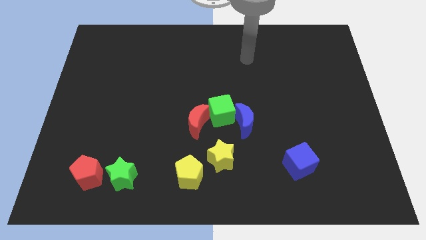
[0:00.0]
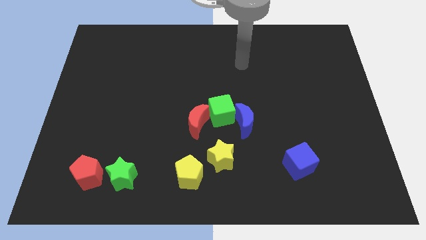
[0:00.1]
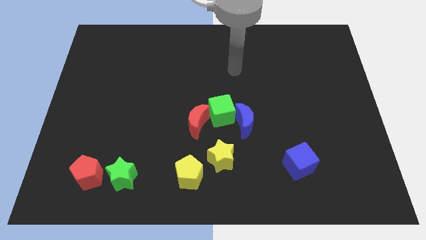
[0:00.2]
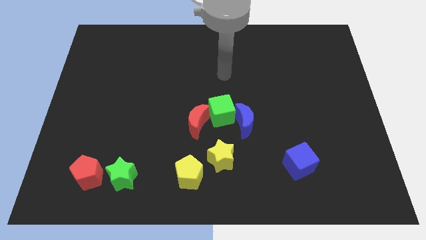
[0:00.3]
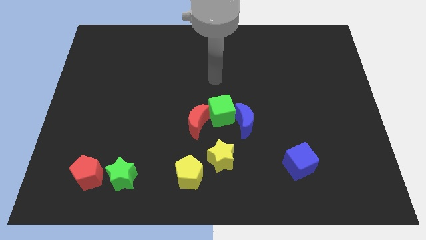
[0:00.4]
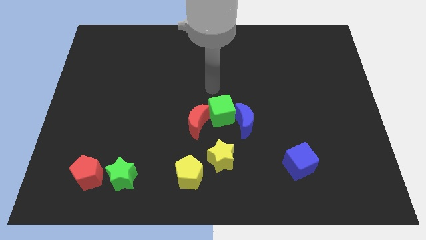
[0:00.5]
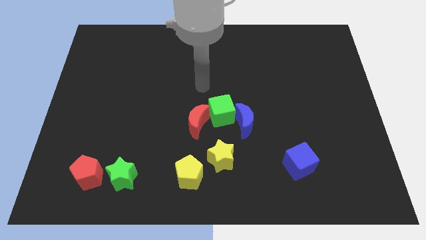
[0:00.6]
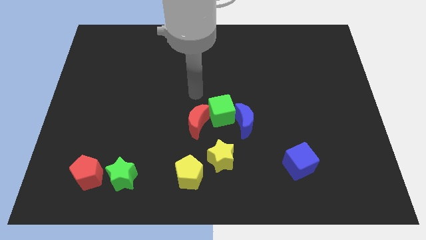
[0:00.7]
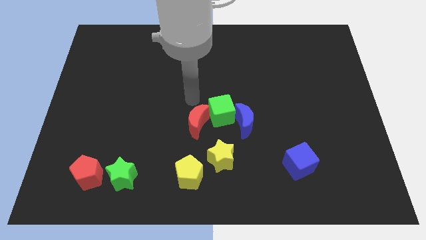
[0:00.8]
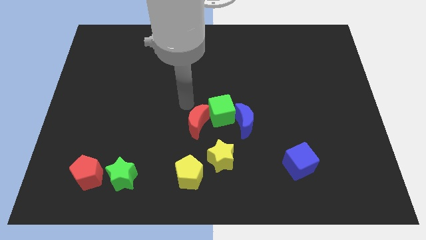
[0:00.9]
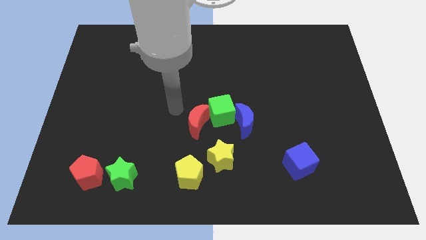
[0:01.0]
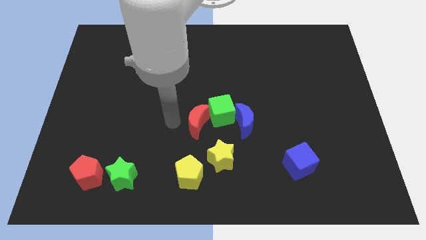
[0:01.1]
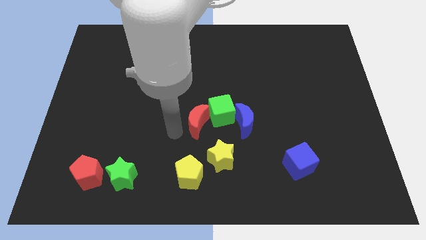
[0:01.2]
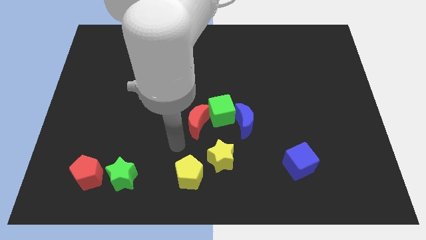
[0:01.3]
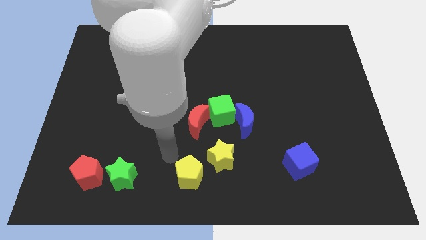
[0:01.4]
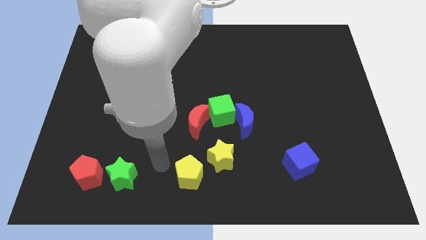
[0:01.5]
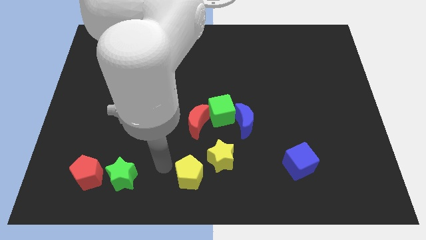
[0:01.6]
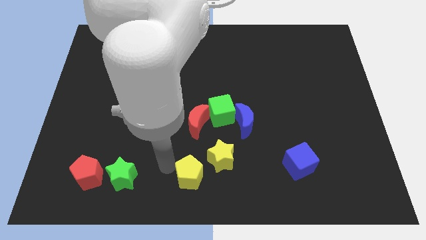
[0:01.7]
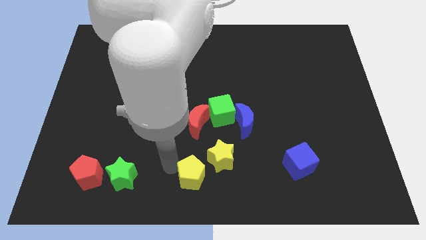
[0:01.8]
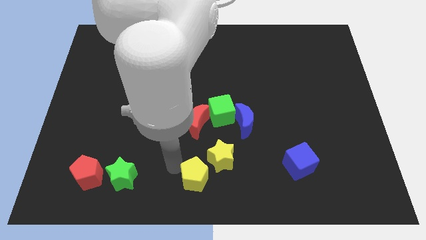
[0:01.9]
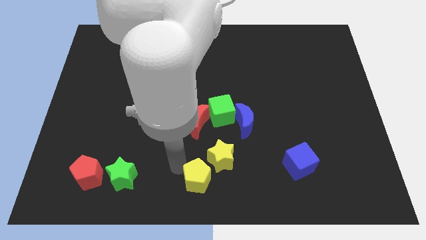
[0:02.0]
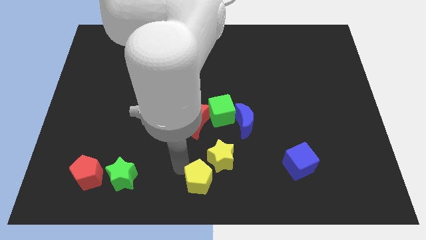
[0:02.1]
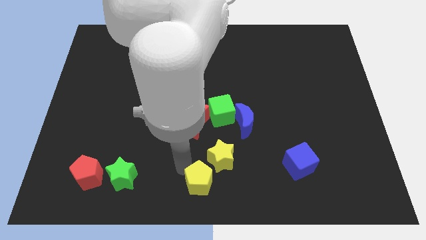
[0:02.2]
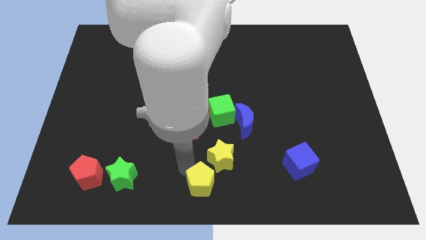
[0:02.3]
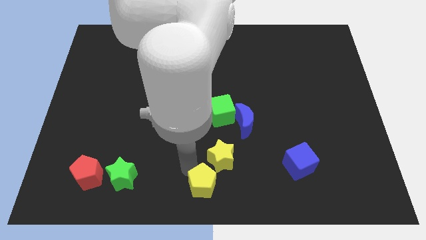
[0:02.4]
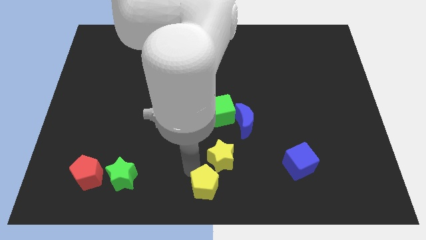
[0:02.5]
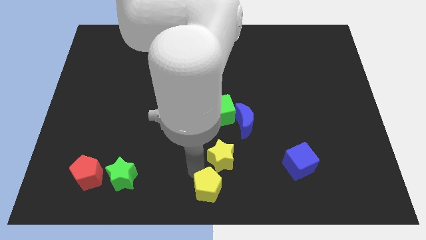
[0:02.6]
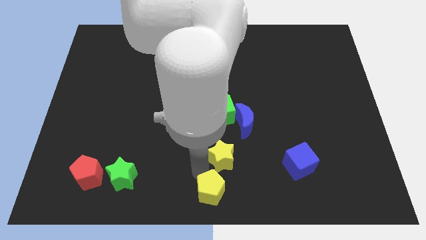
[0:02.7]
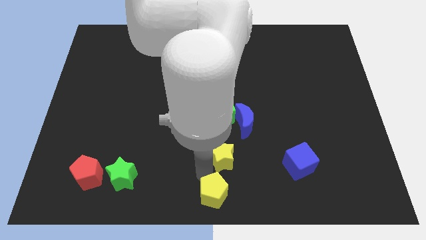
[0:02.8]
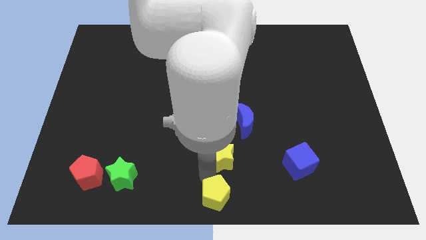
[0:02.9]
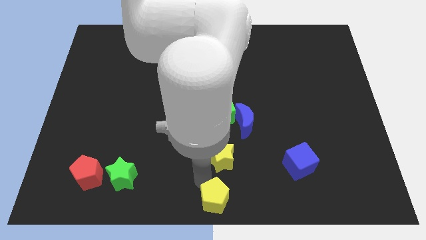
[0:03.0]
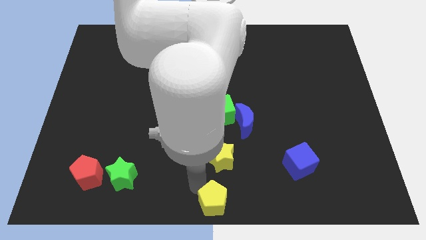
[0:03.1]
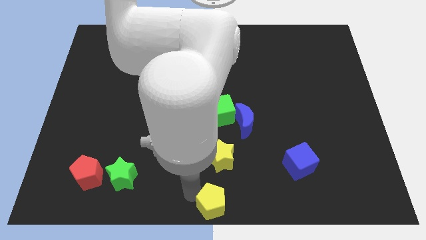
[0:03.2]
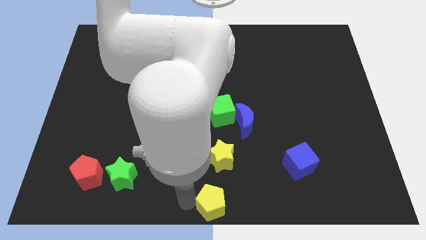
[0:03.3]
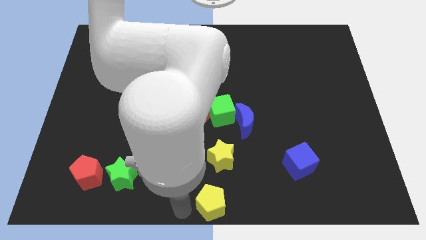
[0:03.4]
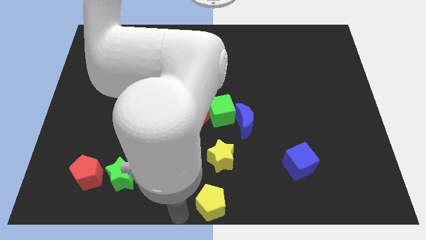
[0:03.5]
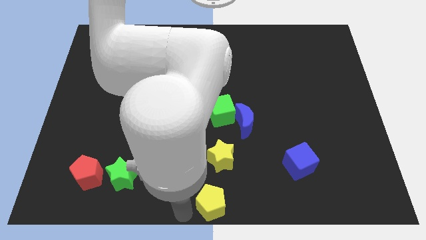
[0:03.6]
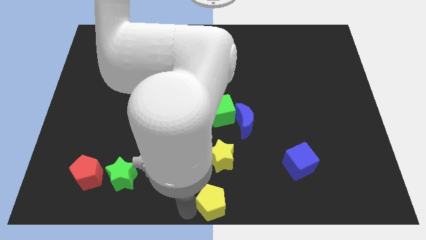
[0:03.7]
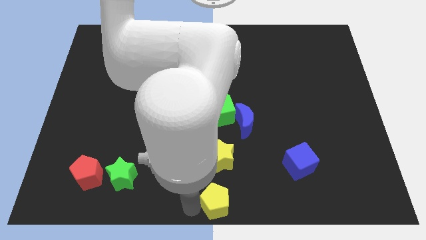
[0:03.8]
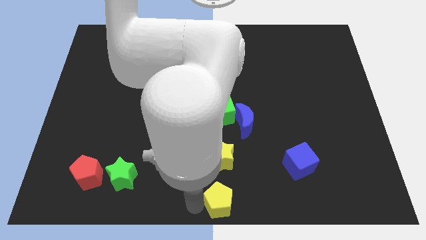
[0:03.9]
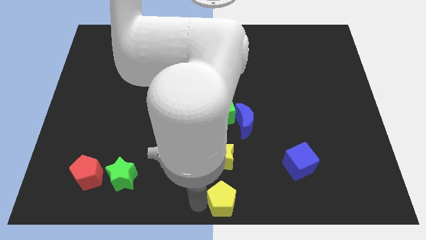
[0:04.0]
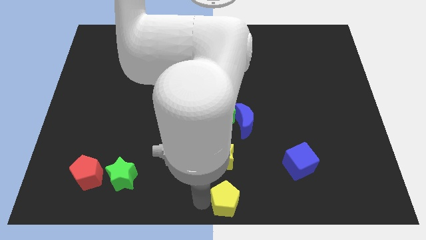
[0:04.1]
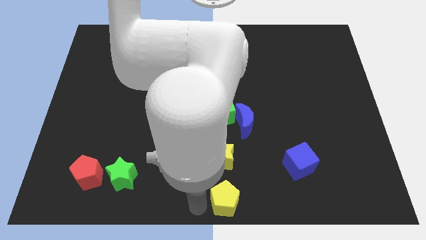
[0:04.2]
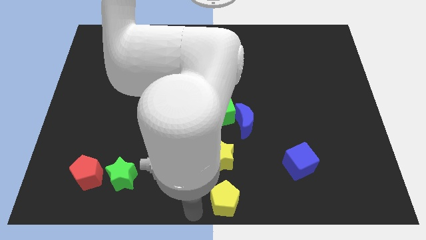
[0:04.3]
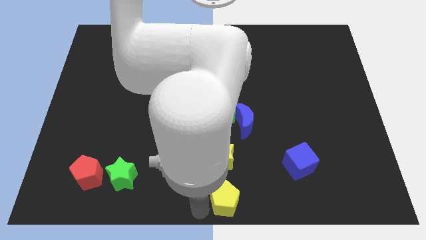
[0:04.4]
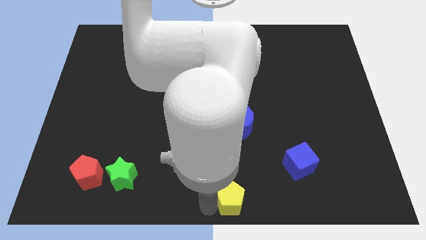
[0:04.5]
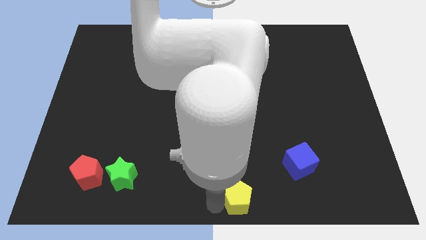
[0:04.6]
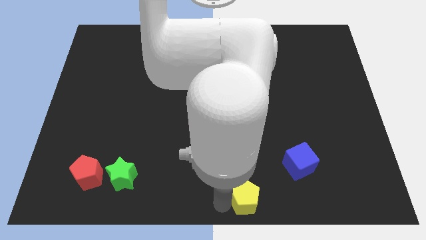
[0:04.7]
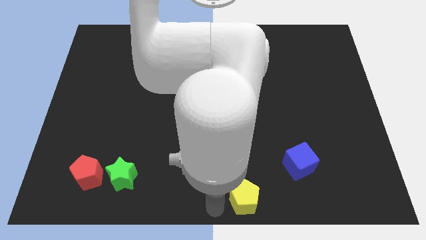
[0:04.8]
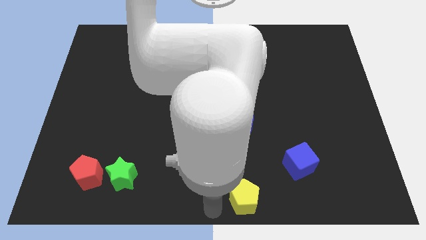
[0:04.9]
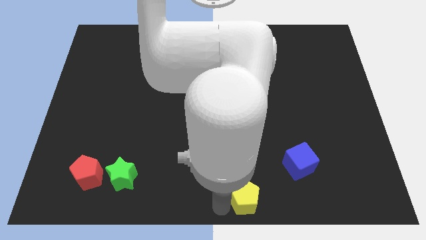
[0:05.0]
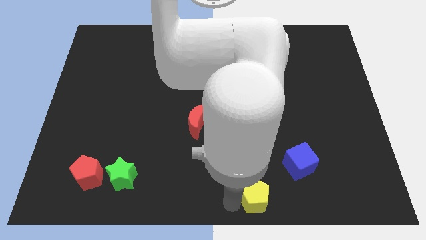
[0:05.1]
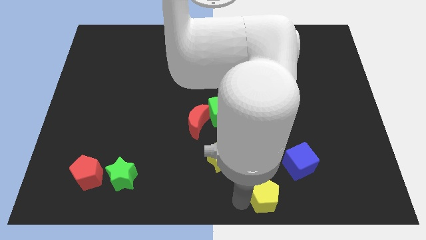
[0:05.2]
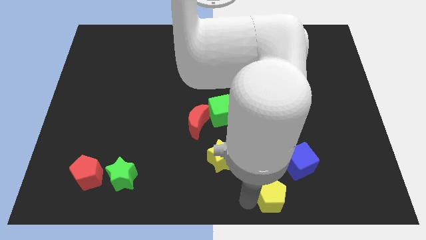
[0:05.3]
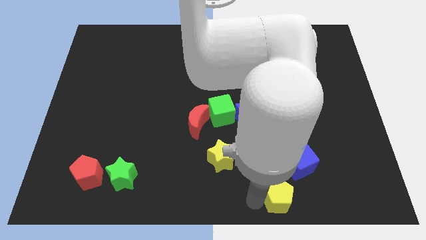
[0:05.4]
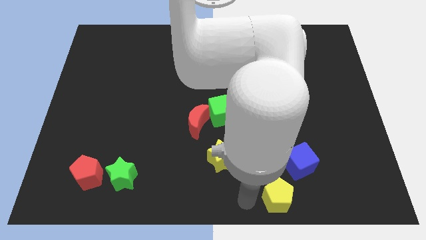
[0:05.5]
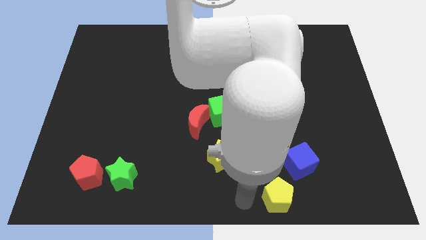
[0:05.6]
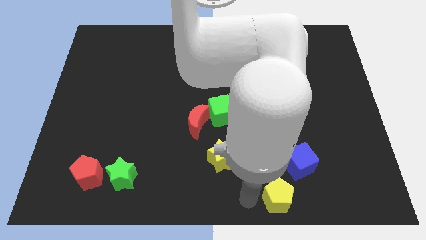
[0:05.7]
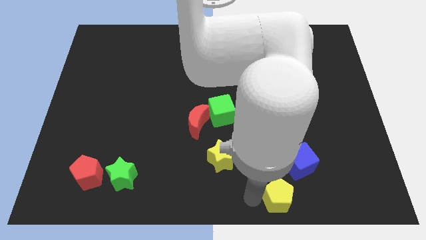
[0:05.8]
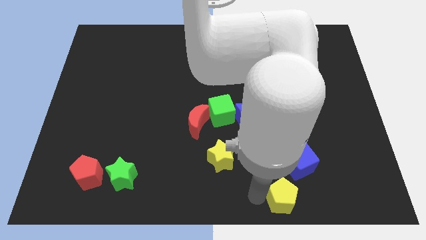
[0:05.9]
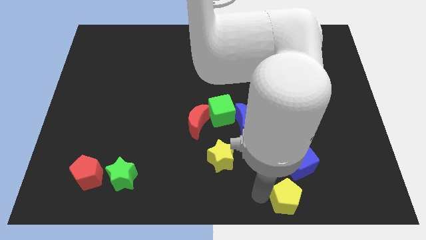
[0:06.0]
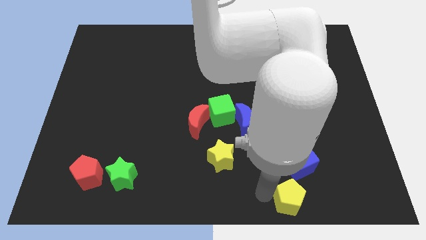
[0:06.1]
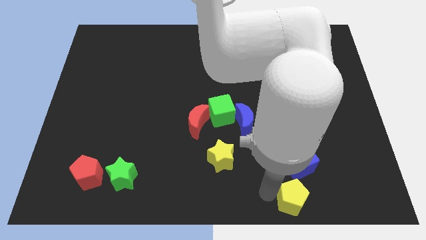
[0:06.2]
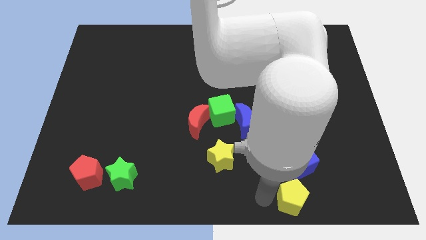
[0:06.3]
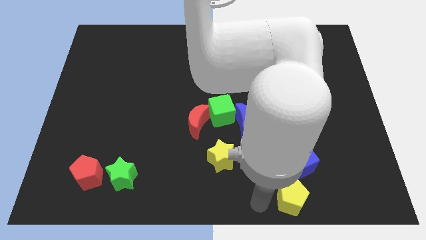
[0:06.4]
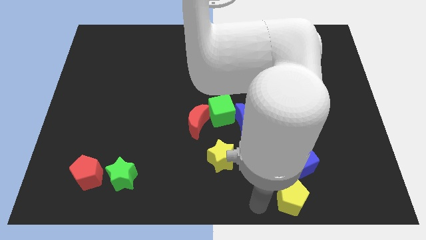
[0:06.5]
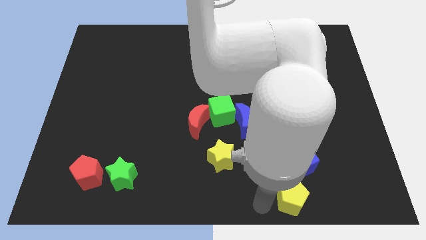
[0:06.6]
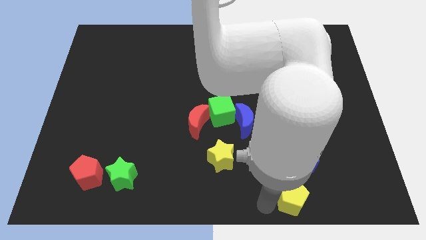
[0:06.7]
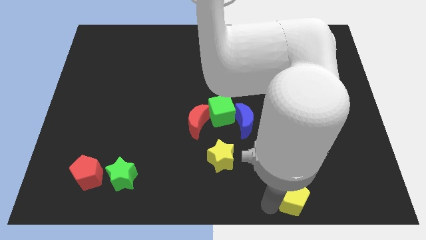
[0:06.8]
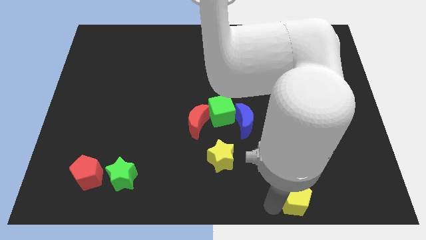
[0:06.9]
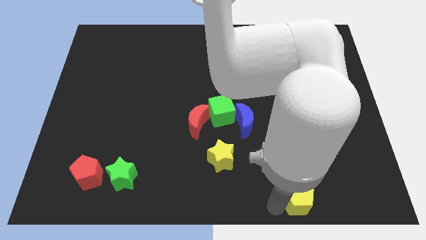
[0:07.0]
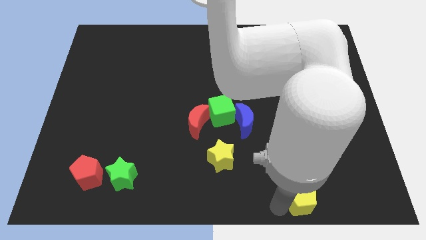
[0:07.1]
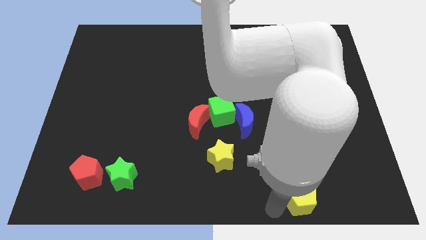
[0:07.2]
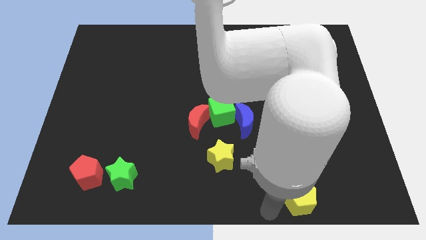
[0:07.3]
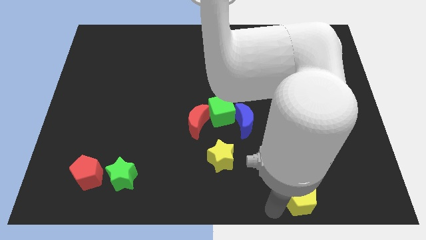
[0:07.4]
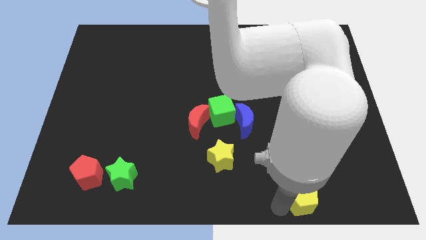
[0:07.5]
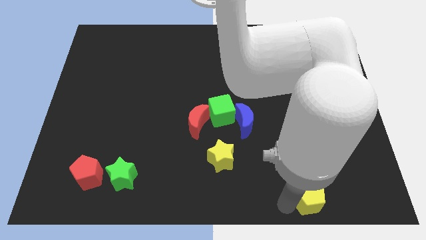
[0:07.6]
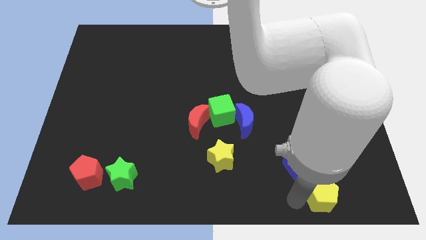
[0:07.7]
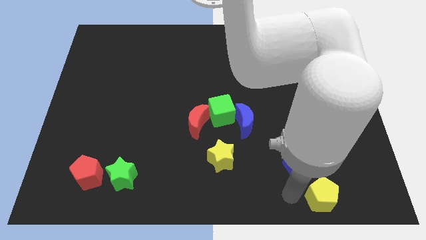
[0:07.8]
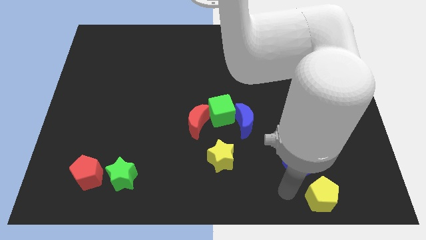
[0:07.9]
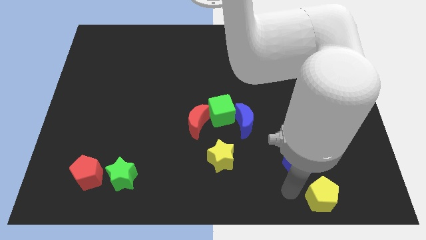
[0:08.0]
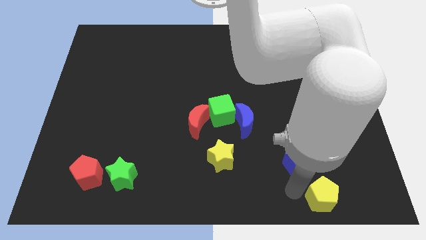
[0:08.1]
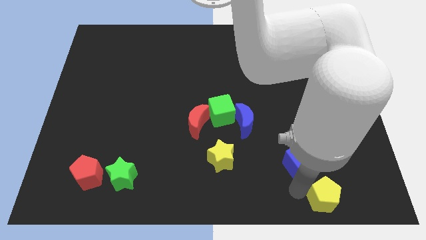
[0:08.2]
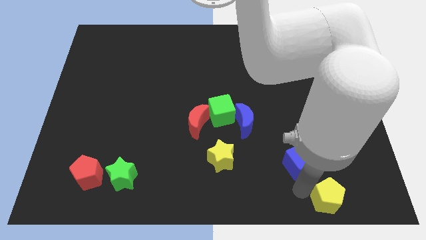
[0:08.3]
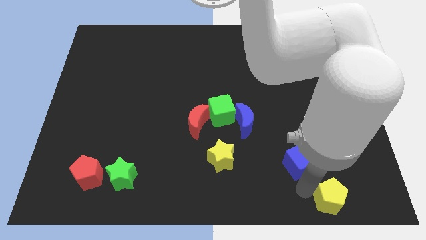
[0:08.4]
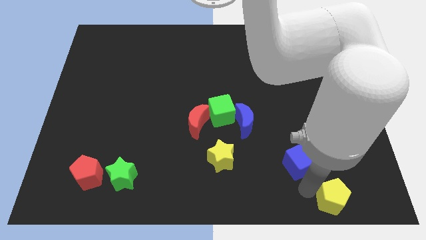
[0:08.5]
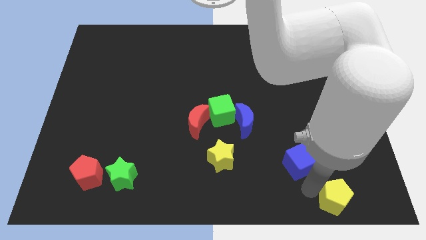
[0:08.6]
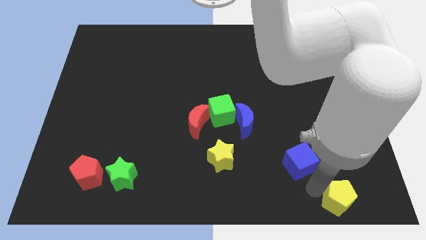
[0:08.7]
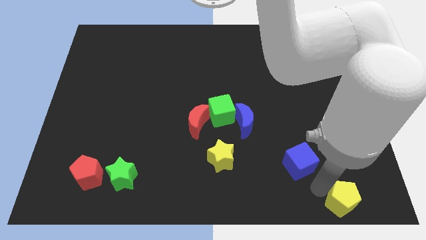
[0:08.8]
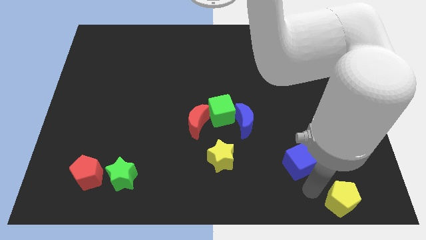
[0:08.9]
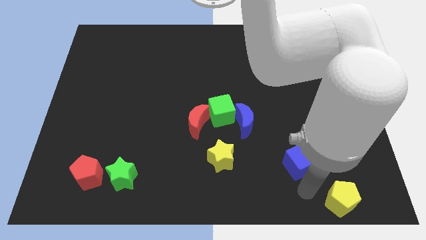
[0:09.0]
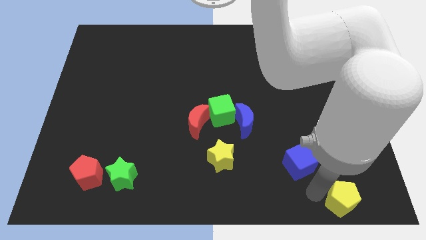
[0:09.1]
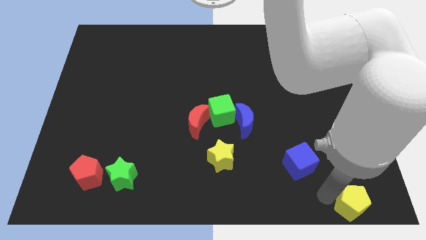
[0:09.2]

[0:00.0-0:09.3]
push the yellow pentagon to the bottom right corner
